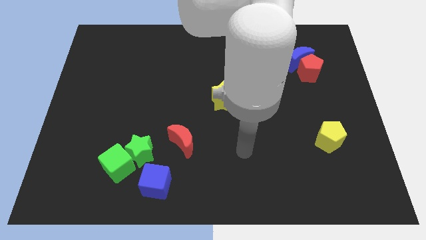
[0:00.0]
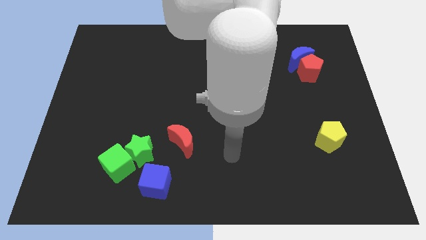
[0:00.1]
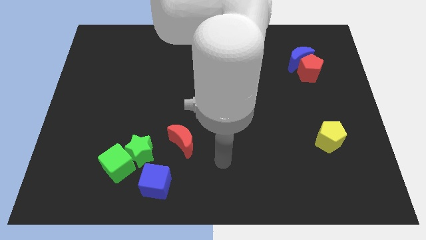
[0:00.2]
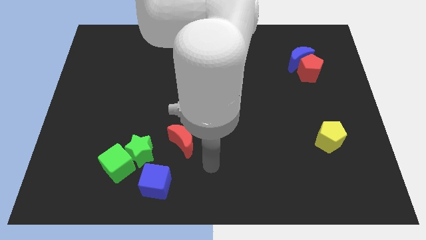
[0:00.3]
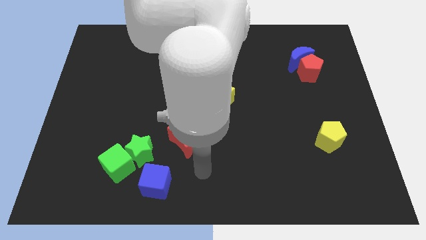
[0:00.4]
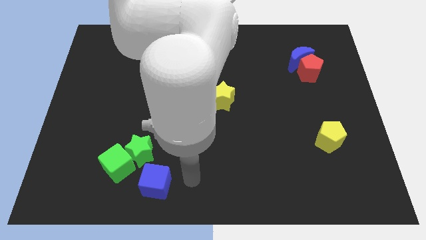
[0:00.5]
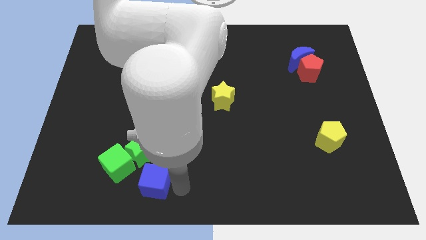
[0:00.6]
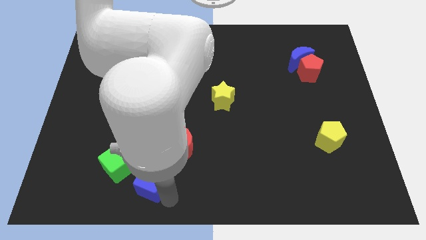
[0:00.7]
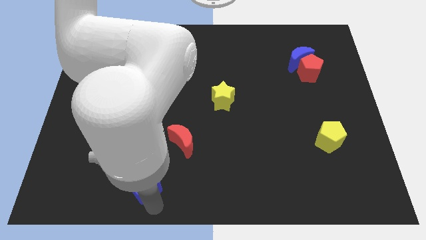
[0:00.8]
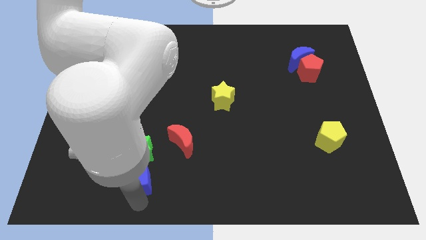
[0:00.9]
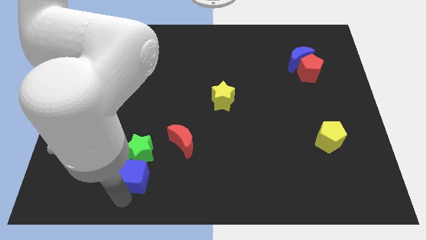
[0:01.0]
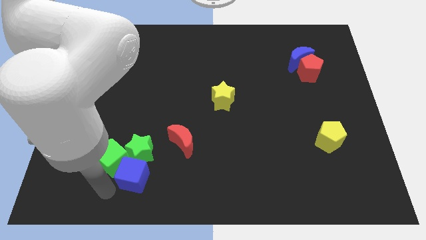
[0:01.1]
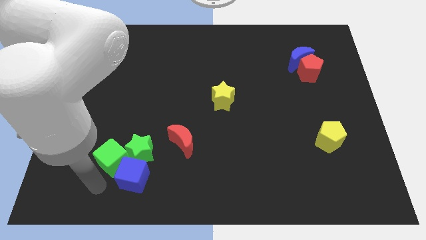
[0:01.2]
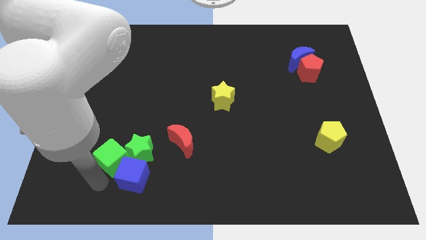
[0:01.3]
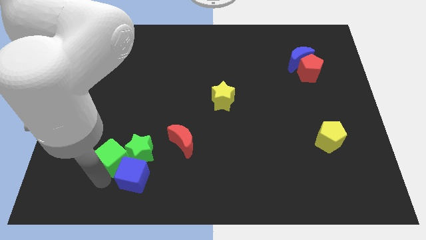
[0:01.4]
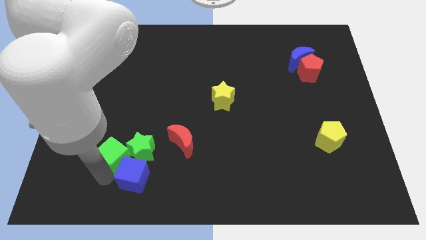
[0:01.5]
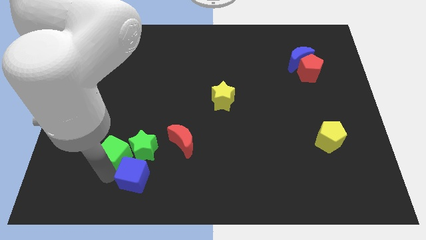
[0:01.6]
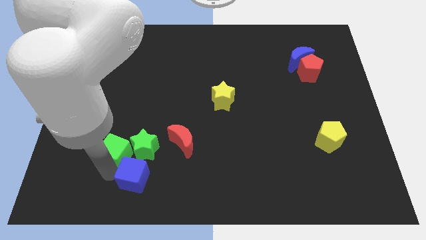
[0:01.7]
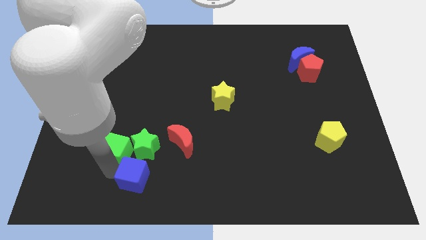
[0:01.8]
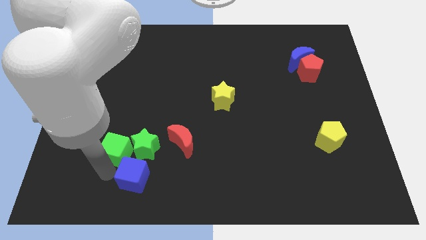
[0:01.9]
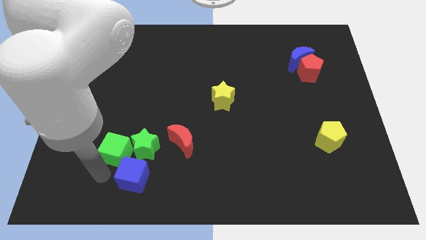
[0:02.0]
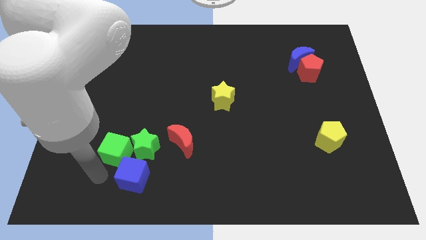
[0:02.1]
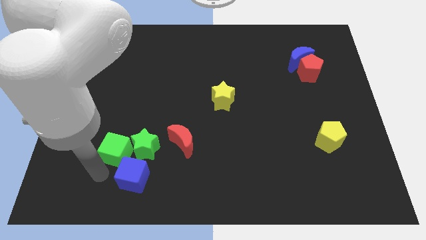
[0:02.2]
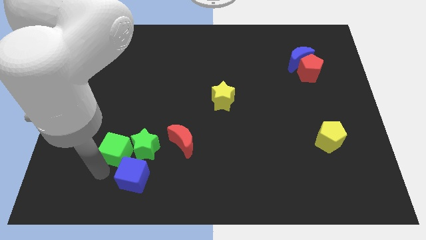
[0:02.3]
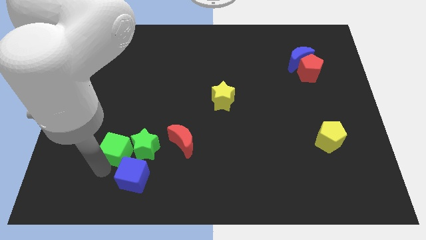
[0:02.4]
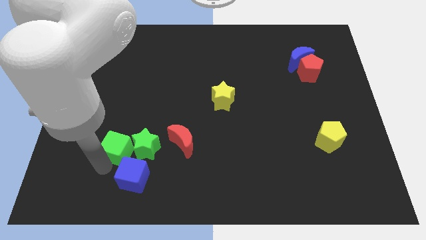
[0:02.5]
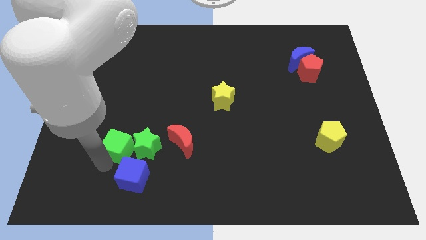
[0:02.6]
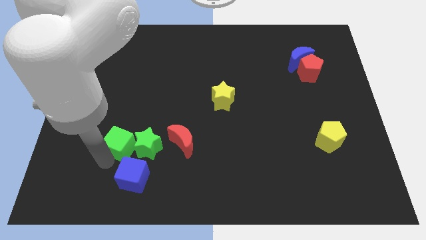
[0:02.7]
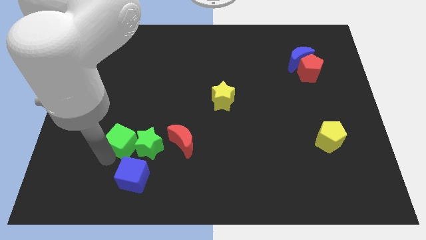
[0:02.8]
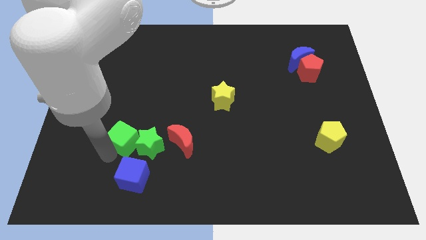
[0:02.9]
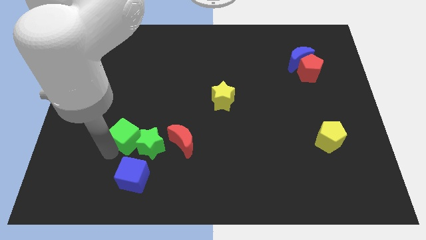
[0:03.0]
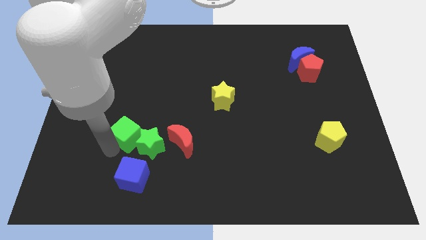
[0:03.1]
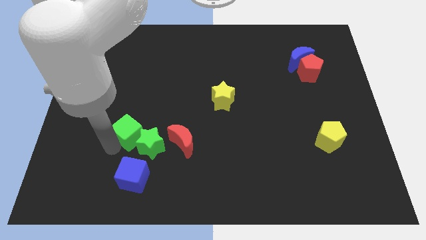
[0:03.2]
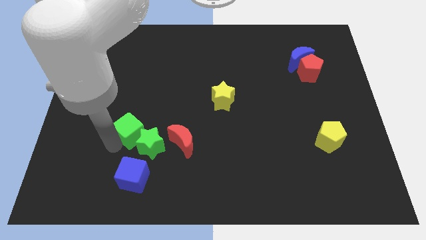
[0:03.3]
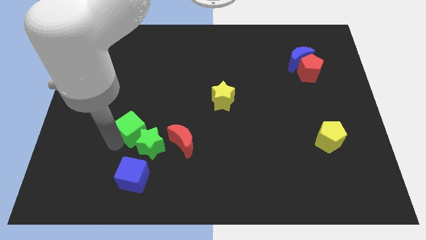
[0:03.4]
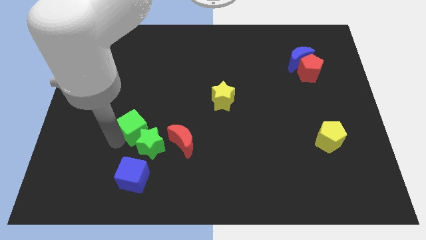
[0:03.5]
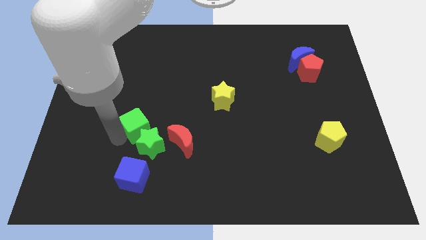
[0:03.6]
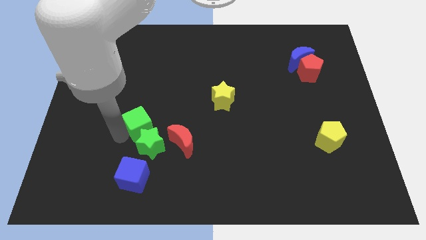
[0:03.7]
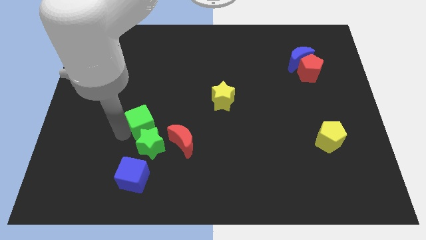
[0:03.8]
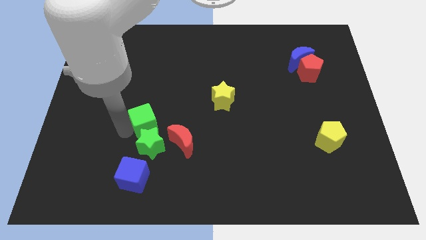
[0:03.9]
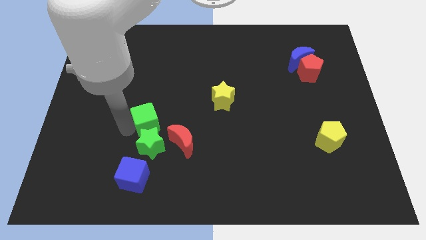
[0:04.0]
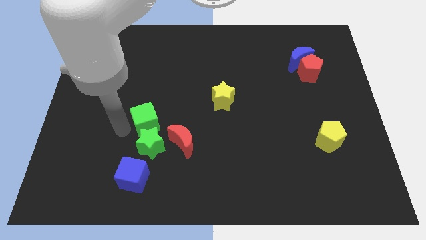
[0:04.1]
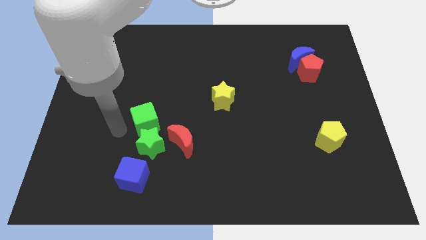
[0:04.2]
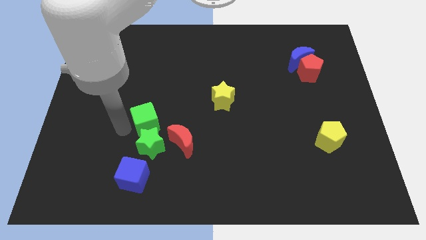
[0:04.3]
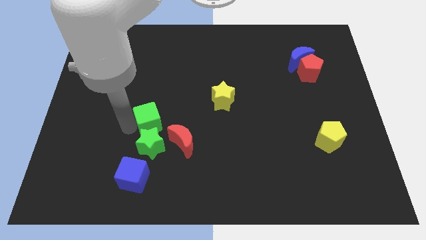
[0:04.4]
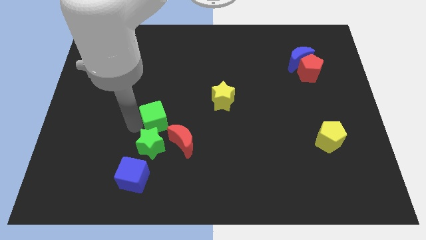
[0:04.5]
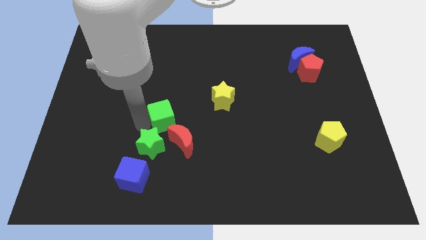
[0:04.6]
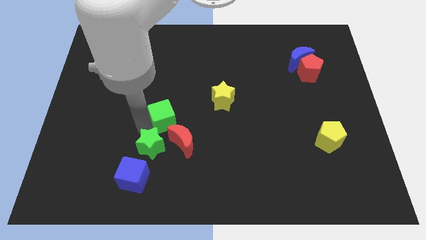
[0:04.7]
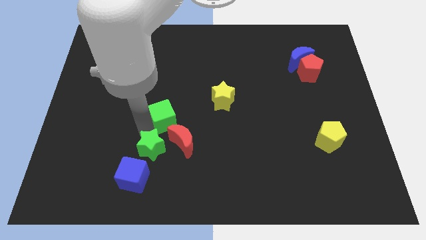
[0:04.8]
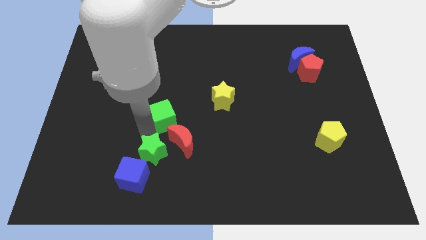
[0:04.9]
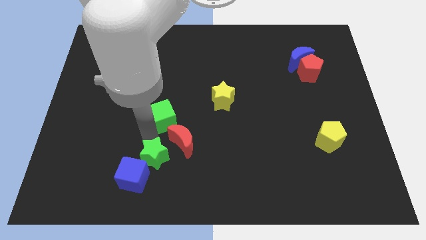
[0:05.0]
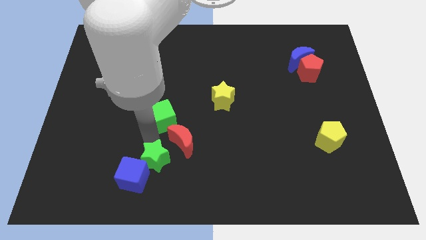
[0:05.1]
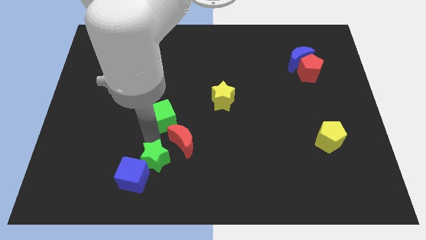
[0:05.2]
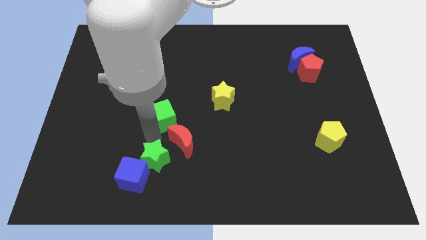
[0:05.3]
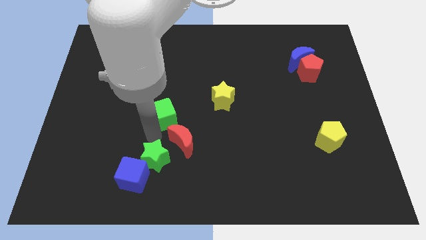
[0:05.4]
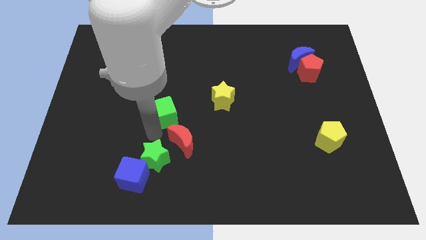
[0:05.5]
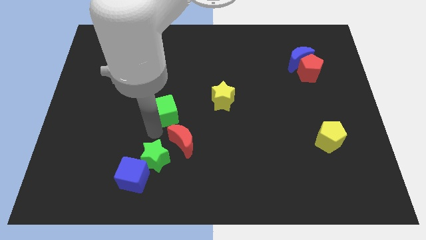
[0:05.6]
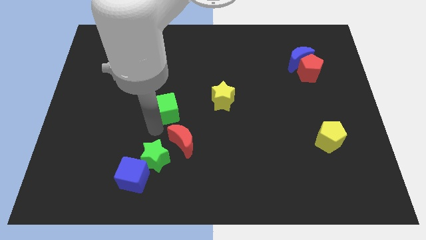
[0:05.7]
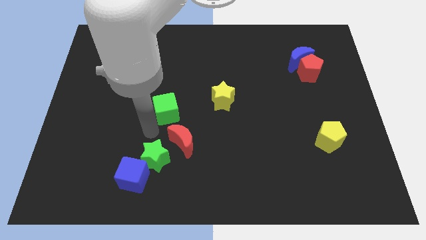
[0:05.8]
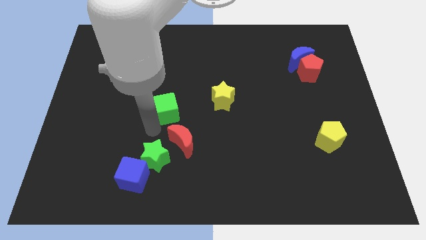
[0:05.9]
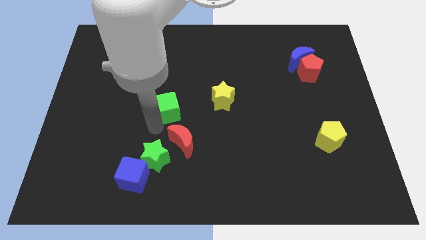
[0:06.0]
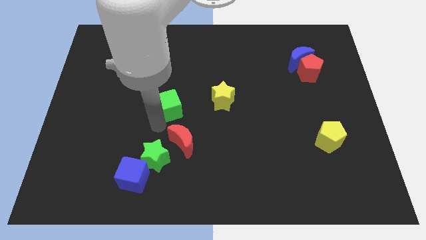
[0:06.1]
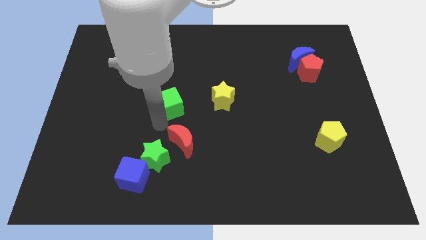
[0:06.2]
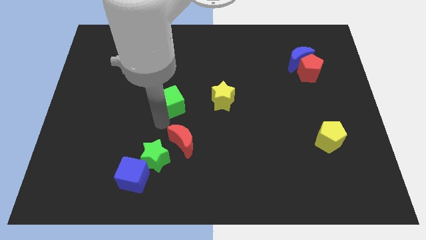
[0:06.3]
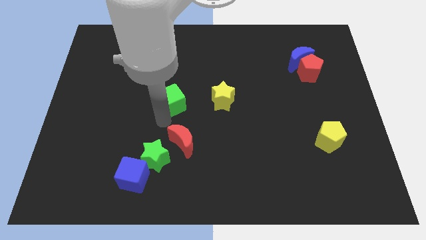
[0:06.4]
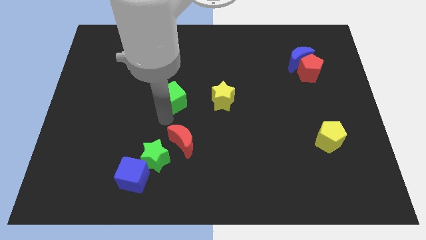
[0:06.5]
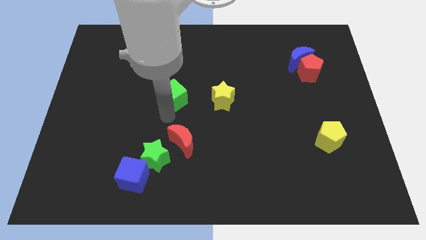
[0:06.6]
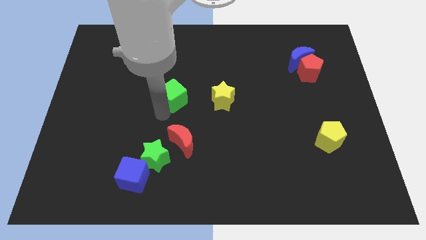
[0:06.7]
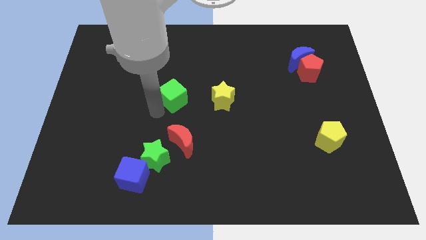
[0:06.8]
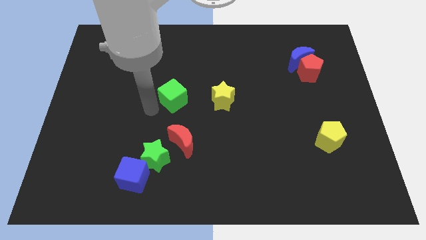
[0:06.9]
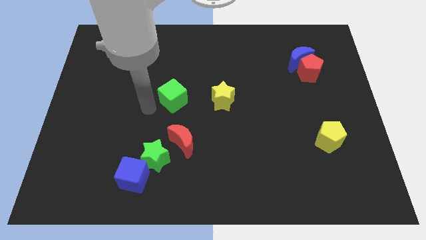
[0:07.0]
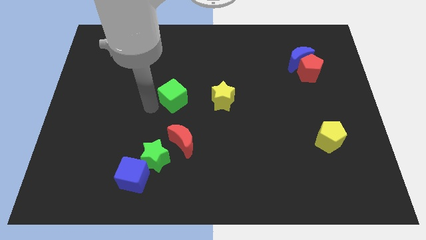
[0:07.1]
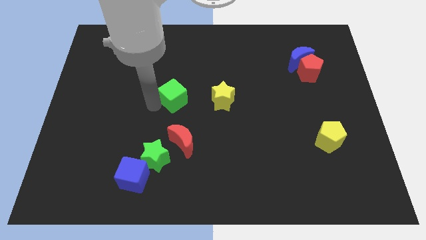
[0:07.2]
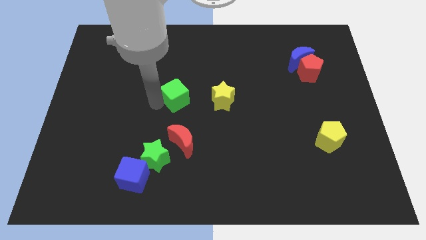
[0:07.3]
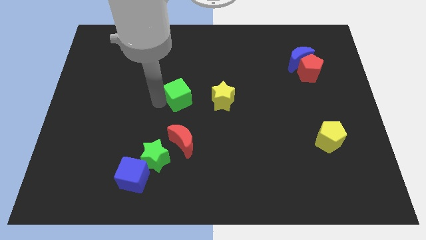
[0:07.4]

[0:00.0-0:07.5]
slide the green cube diagonally up and right

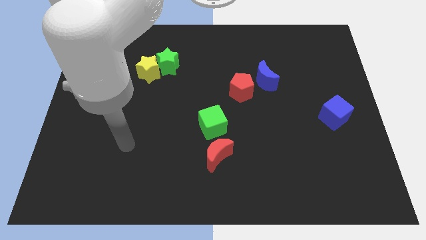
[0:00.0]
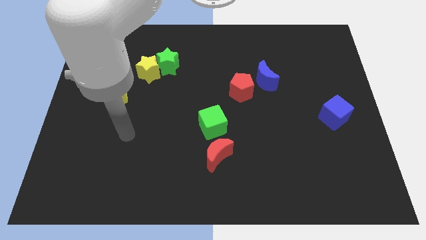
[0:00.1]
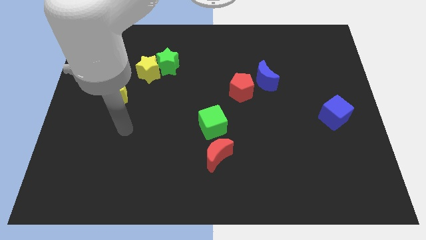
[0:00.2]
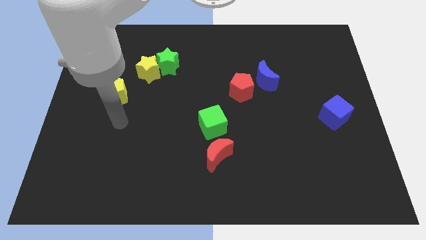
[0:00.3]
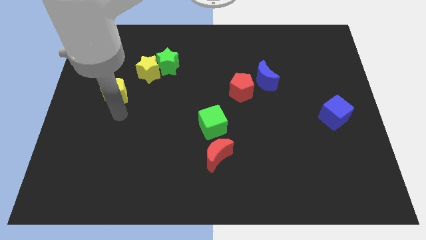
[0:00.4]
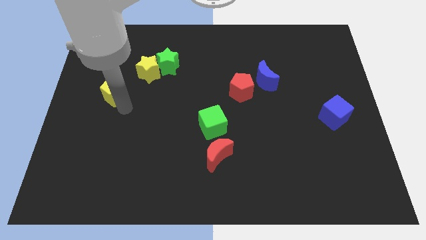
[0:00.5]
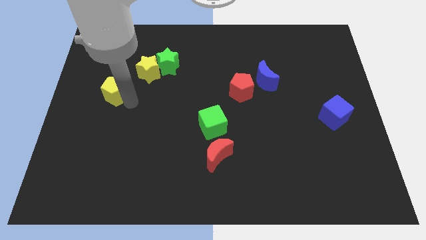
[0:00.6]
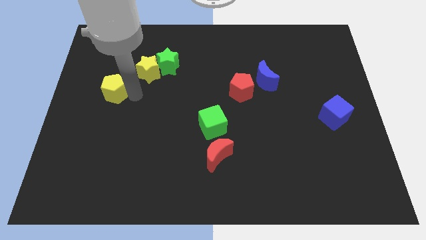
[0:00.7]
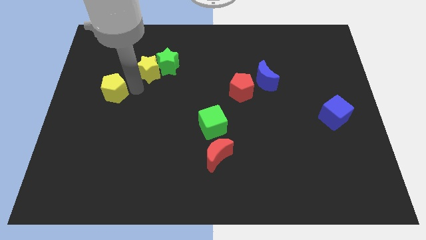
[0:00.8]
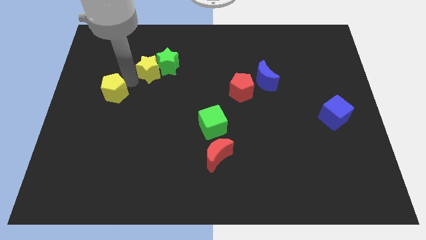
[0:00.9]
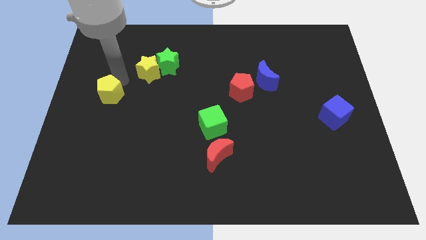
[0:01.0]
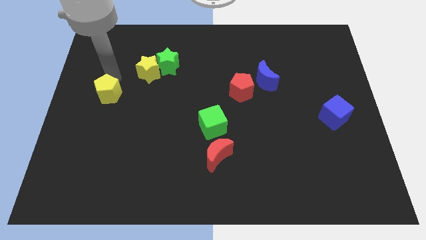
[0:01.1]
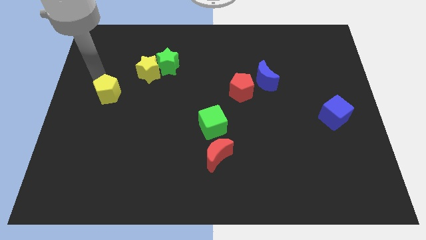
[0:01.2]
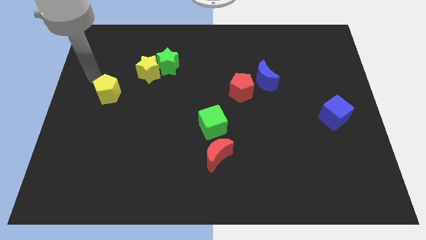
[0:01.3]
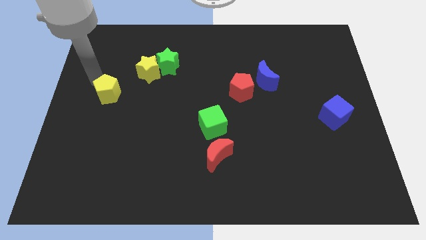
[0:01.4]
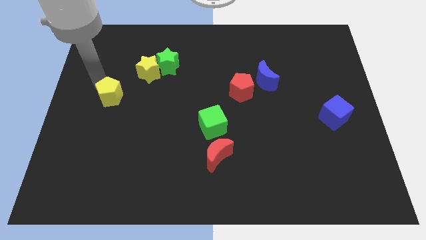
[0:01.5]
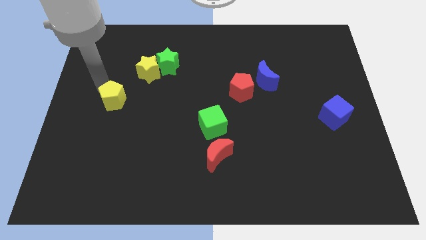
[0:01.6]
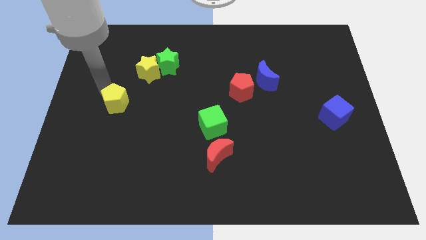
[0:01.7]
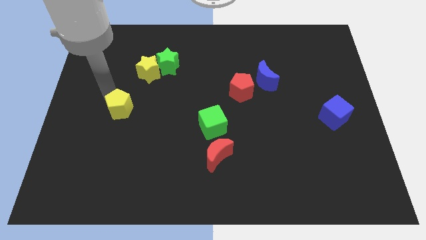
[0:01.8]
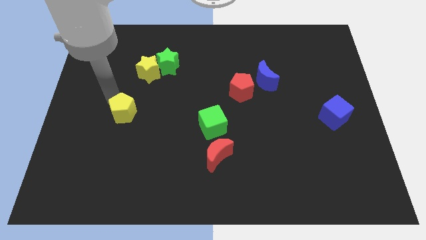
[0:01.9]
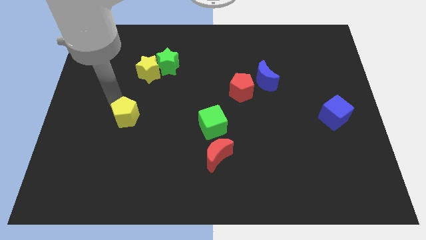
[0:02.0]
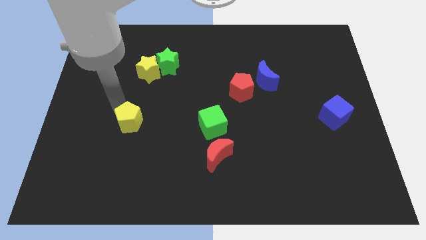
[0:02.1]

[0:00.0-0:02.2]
slightly slide the yellow pentagon downwards and then to the right
